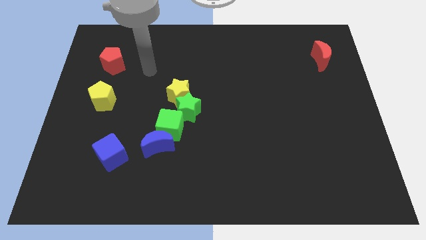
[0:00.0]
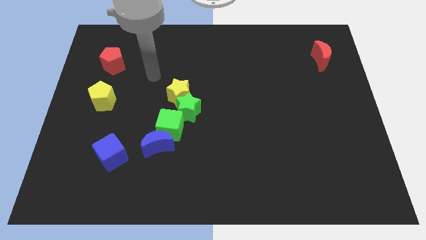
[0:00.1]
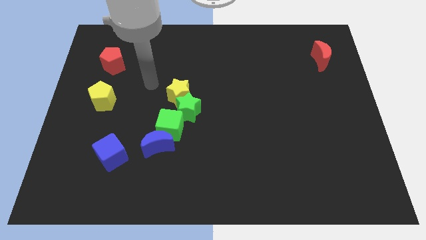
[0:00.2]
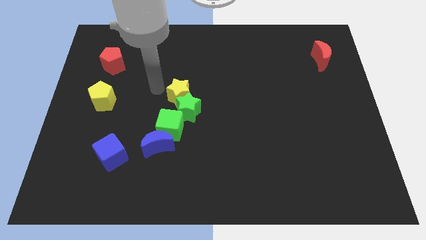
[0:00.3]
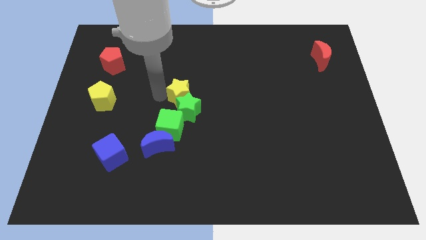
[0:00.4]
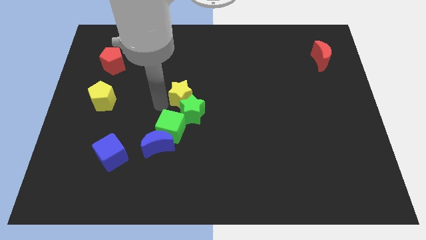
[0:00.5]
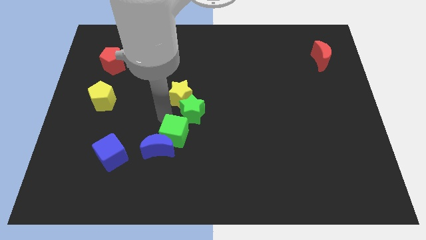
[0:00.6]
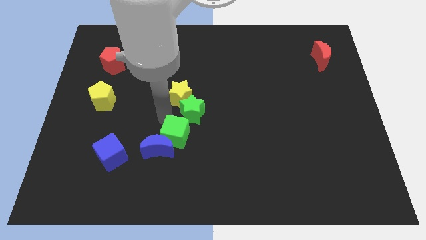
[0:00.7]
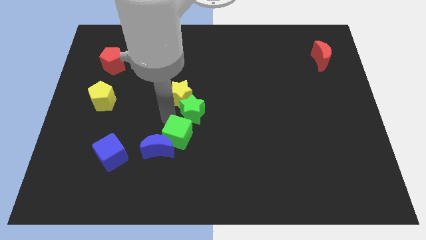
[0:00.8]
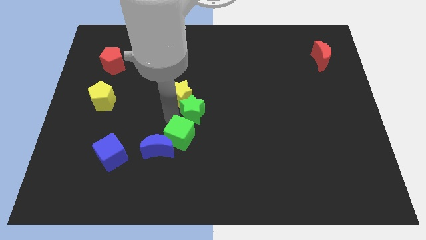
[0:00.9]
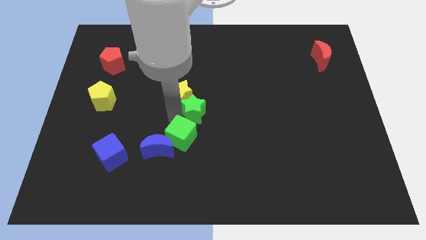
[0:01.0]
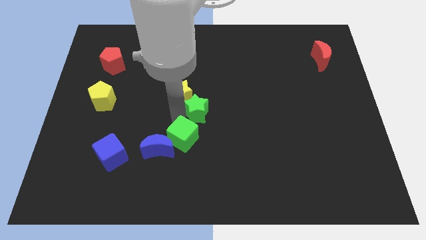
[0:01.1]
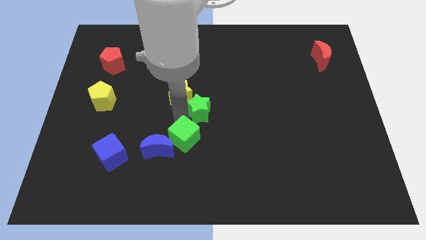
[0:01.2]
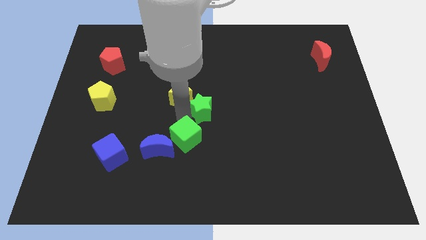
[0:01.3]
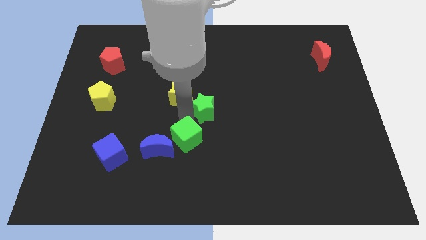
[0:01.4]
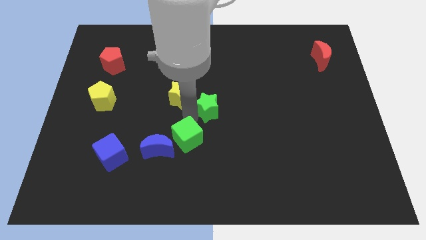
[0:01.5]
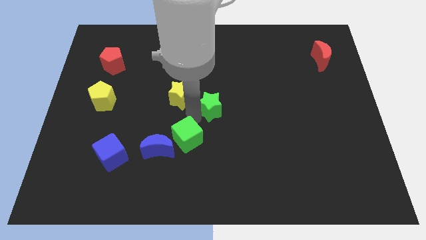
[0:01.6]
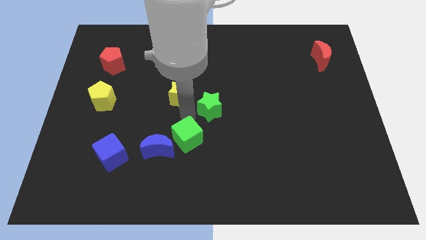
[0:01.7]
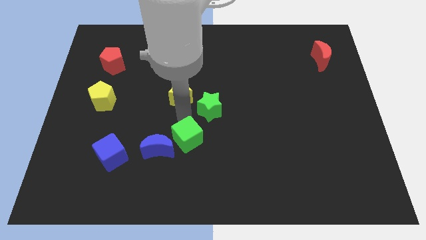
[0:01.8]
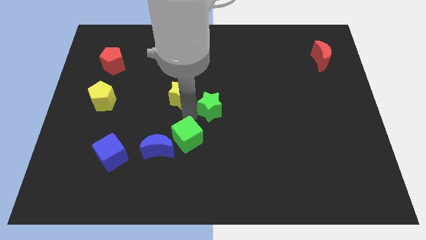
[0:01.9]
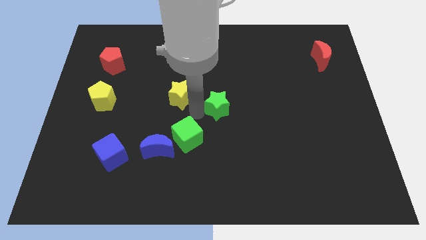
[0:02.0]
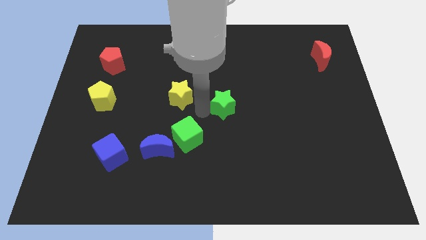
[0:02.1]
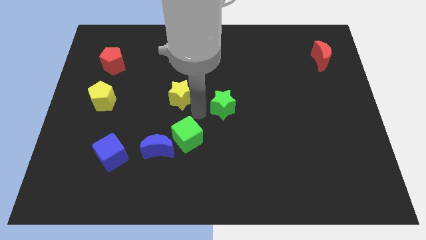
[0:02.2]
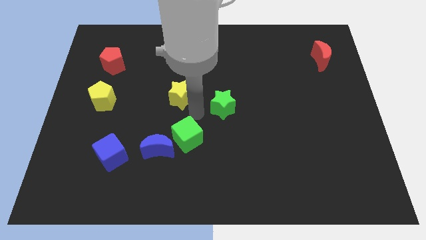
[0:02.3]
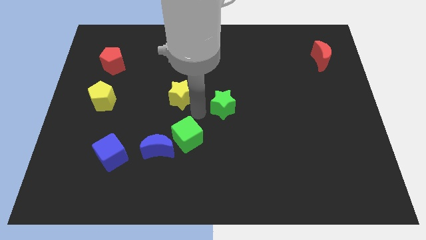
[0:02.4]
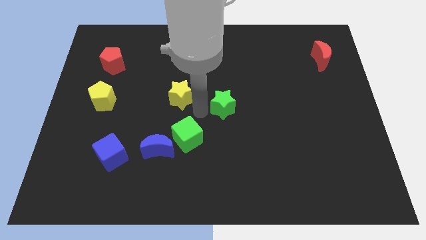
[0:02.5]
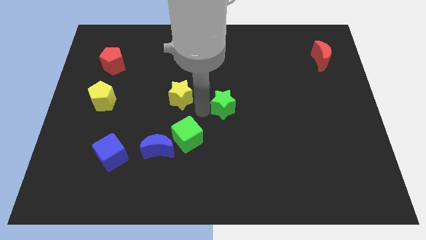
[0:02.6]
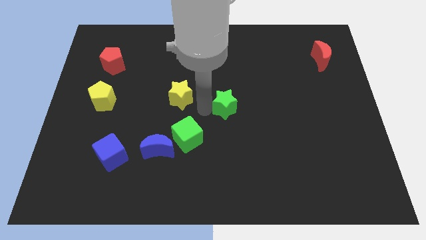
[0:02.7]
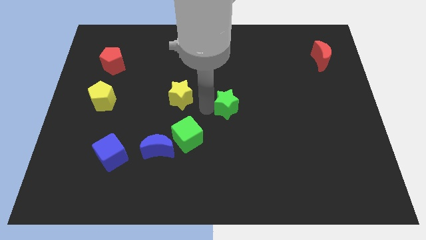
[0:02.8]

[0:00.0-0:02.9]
pull the green star apart from the yellow star and green cube

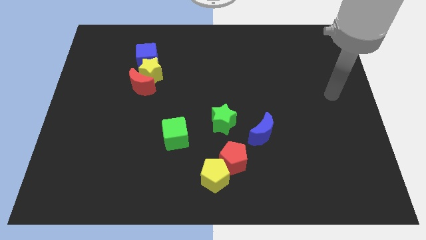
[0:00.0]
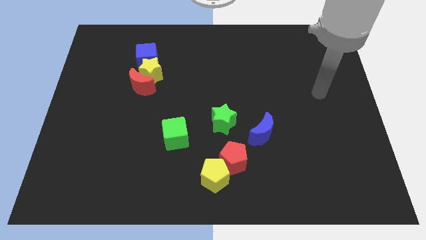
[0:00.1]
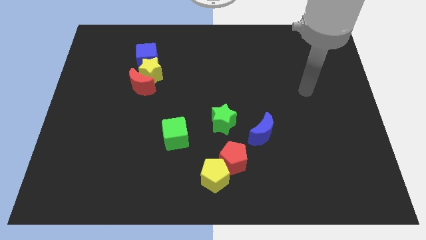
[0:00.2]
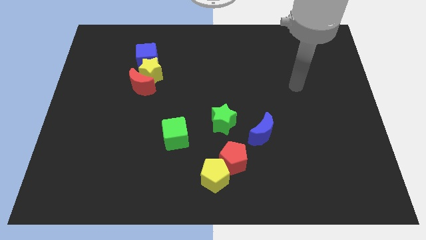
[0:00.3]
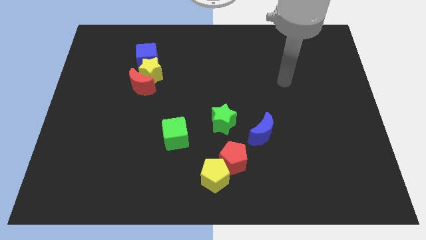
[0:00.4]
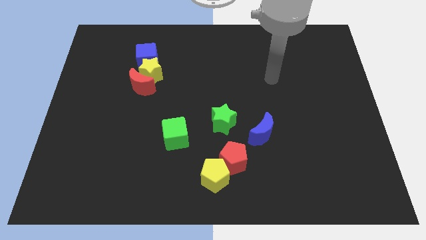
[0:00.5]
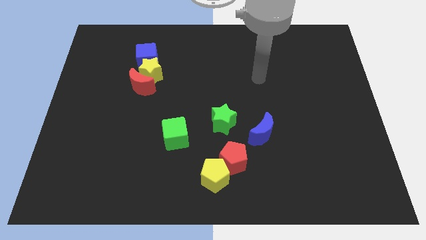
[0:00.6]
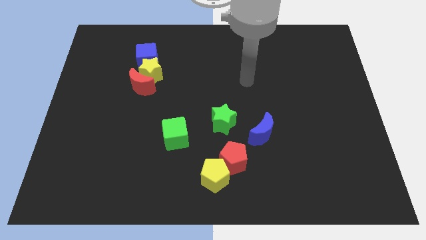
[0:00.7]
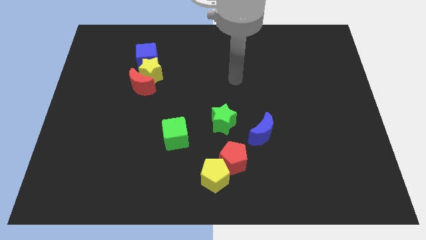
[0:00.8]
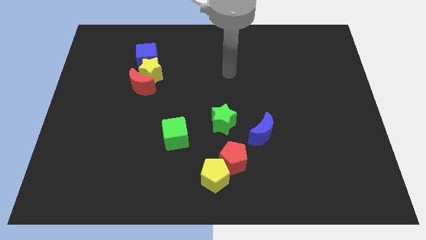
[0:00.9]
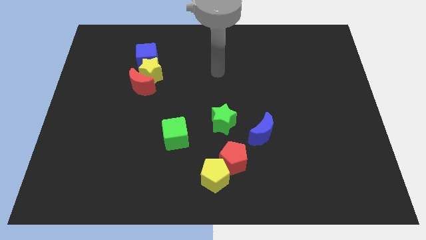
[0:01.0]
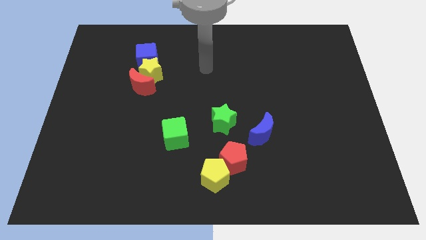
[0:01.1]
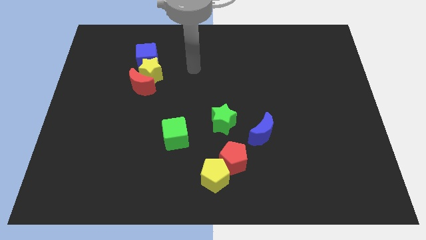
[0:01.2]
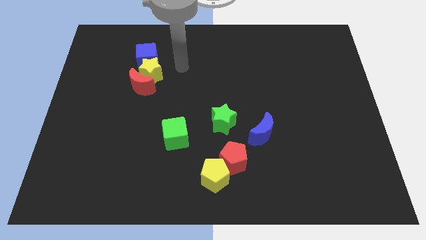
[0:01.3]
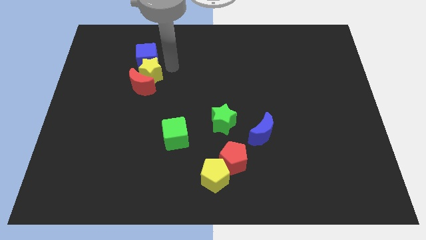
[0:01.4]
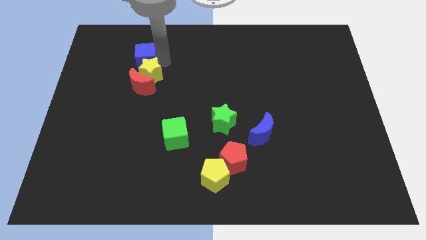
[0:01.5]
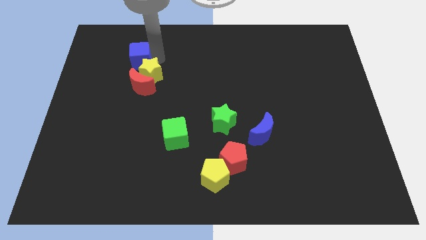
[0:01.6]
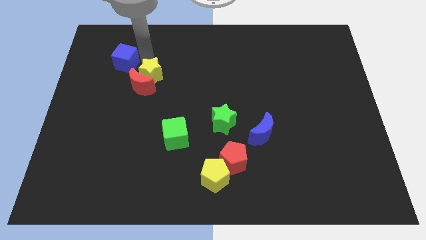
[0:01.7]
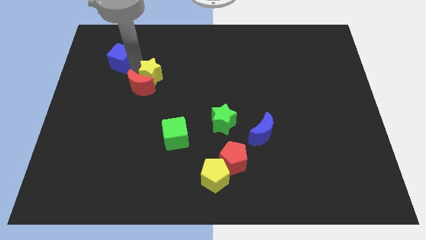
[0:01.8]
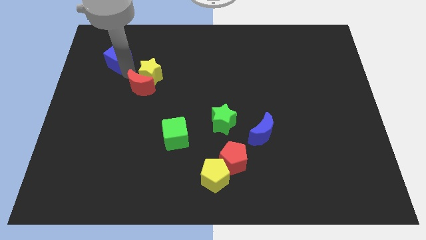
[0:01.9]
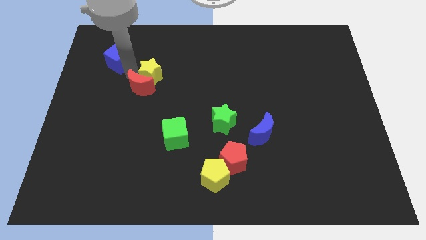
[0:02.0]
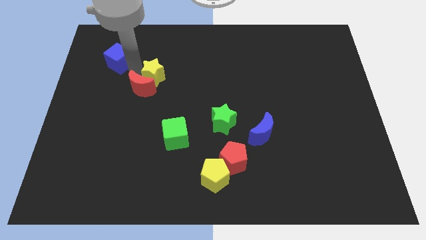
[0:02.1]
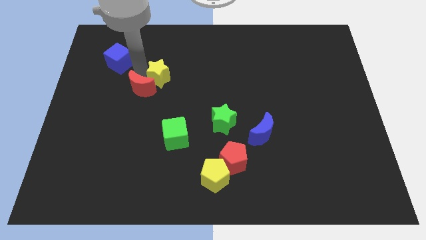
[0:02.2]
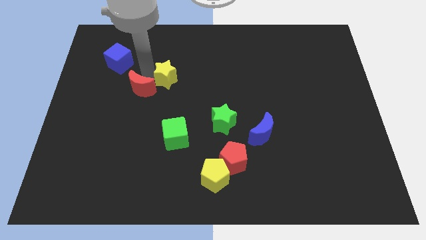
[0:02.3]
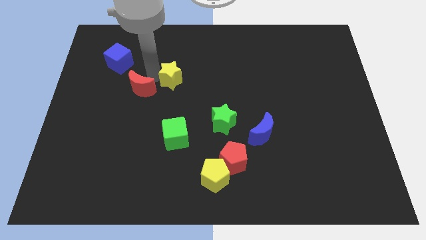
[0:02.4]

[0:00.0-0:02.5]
move the yellow star away from the red moon and blue cube

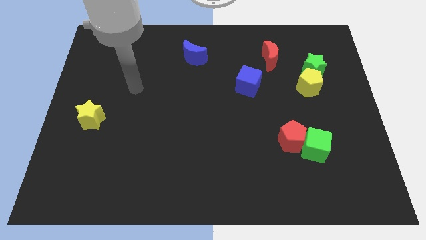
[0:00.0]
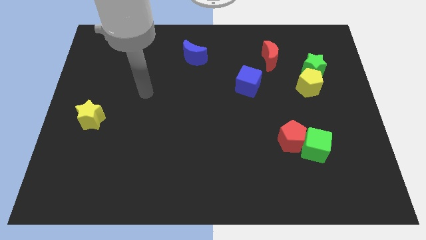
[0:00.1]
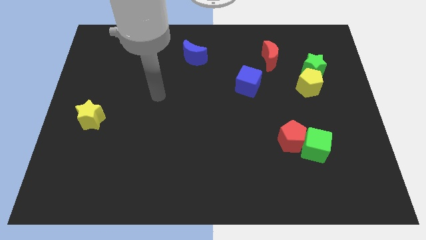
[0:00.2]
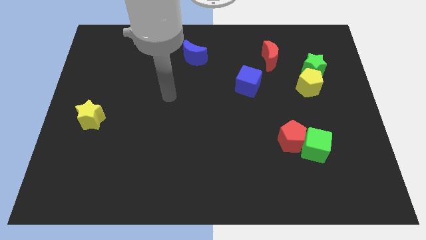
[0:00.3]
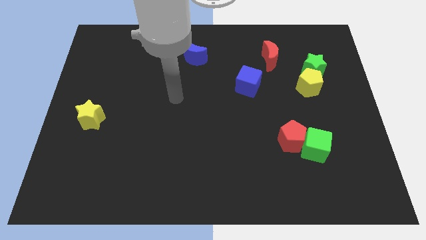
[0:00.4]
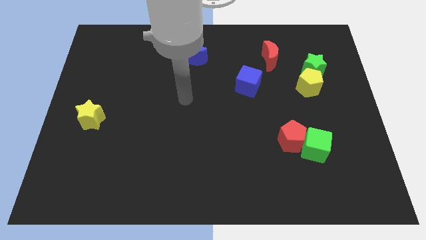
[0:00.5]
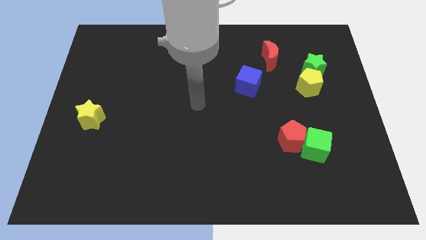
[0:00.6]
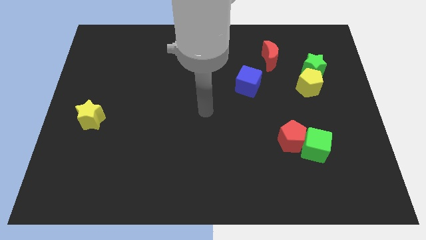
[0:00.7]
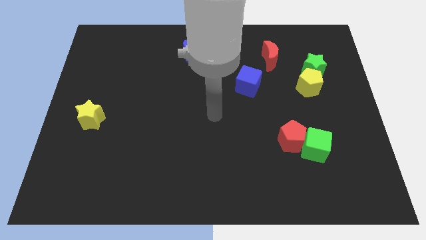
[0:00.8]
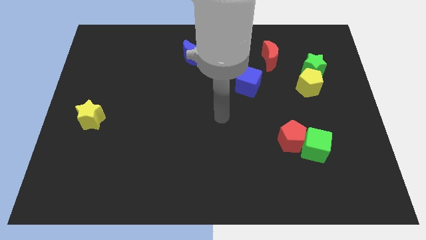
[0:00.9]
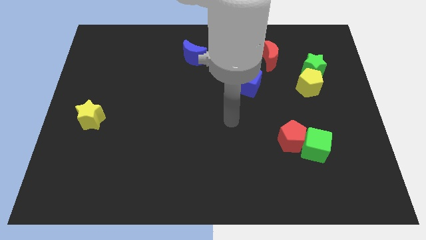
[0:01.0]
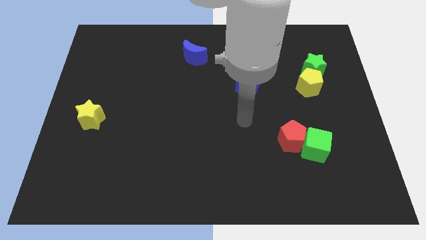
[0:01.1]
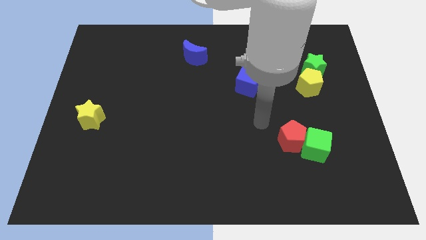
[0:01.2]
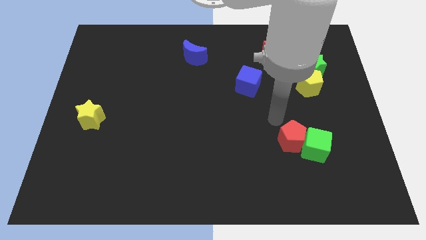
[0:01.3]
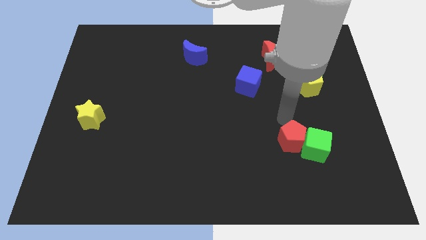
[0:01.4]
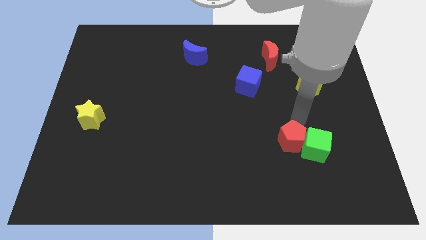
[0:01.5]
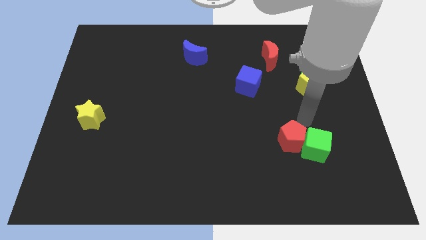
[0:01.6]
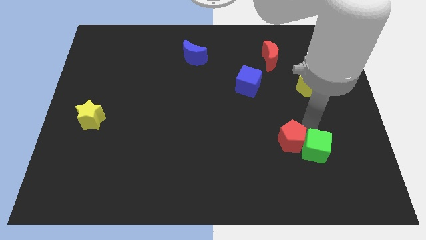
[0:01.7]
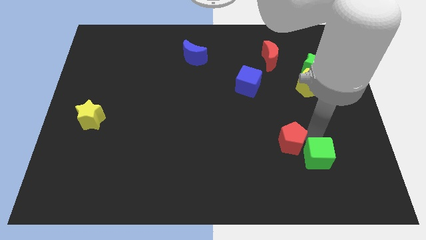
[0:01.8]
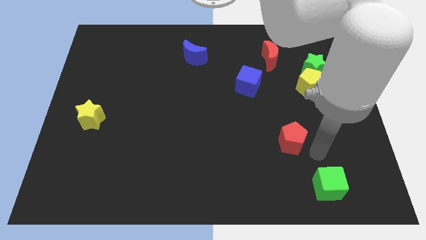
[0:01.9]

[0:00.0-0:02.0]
move the red pentagon away from the green cube

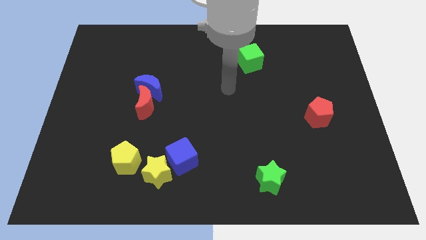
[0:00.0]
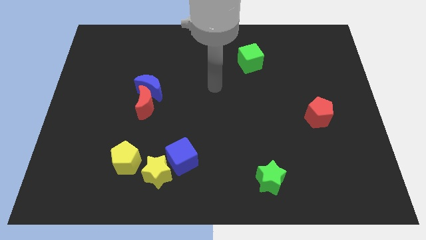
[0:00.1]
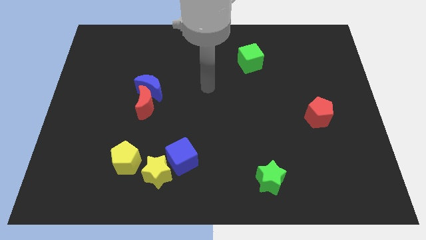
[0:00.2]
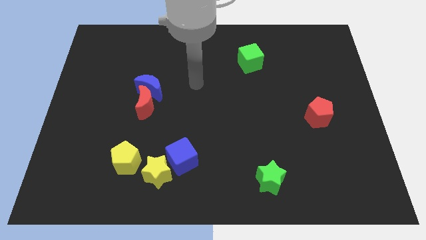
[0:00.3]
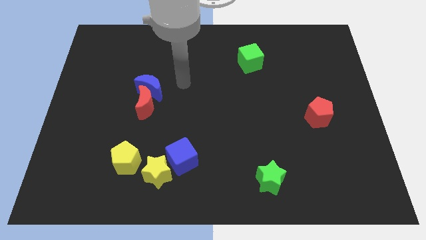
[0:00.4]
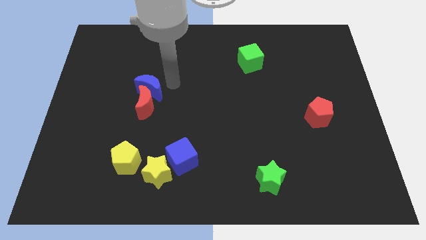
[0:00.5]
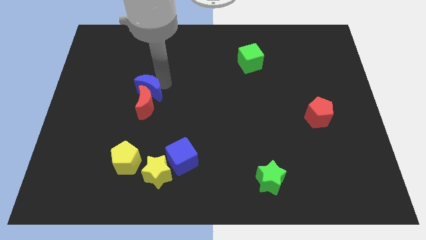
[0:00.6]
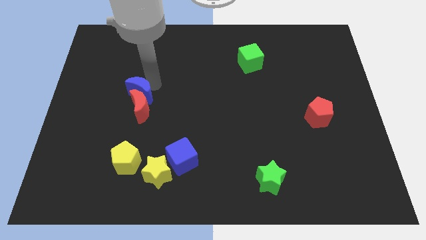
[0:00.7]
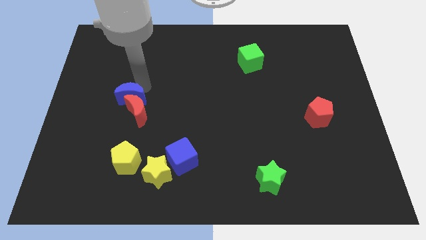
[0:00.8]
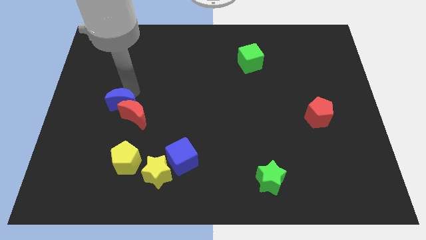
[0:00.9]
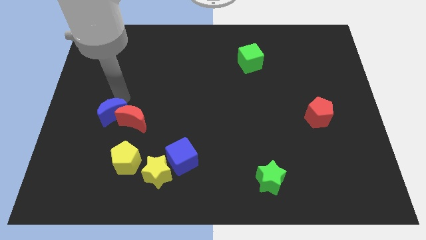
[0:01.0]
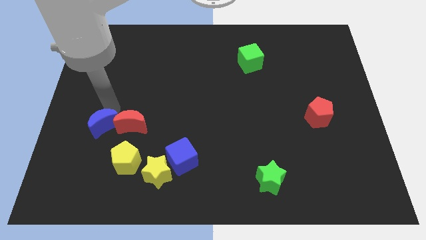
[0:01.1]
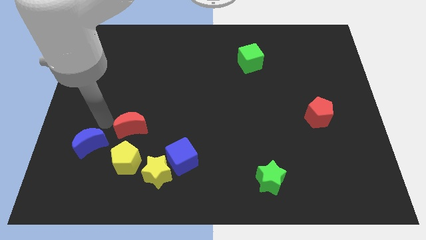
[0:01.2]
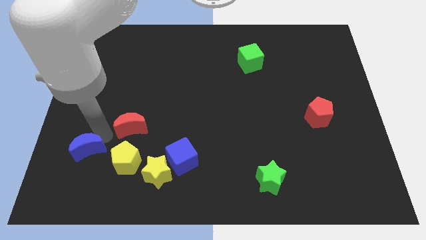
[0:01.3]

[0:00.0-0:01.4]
separate the red moon from the blue moon

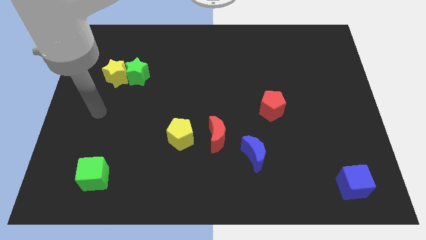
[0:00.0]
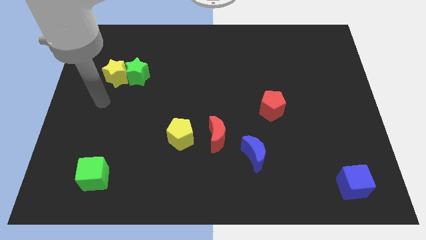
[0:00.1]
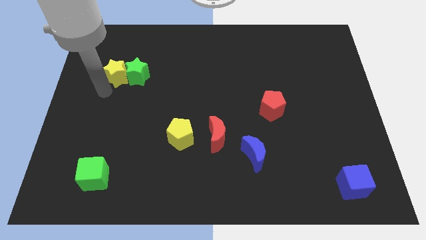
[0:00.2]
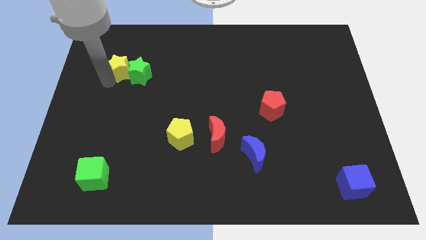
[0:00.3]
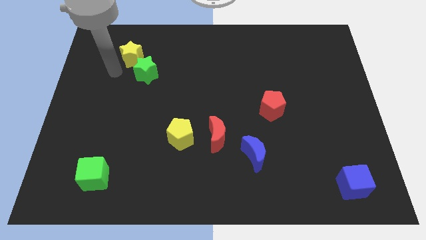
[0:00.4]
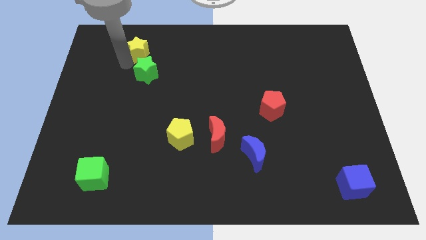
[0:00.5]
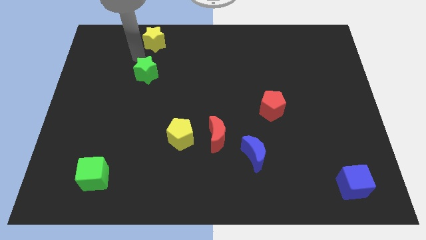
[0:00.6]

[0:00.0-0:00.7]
move the green star away from the yellow star
